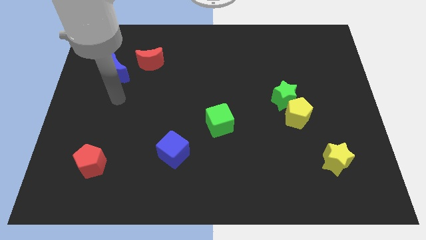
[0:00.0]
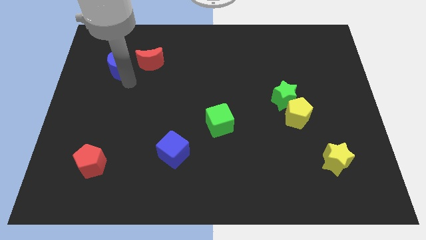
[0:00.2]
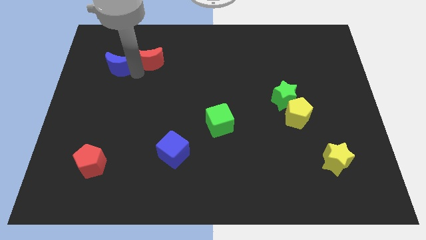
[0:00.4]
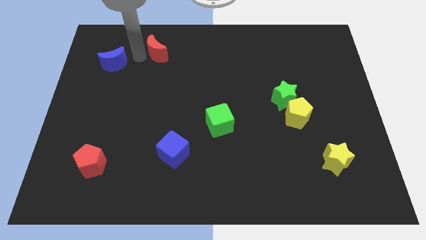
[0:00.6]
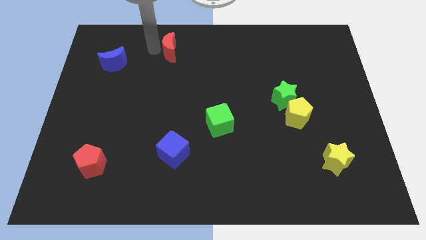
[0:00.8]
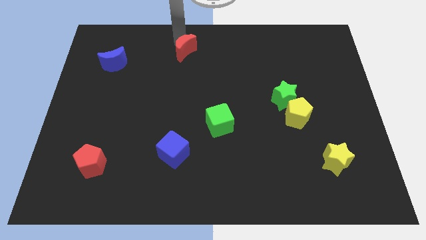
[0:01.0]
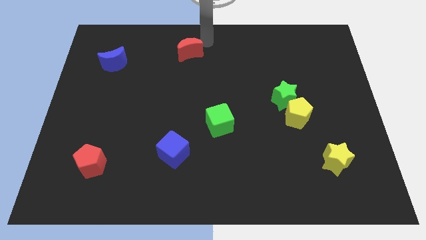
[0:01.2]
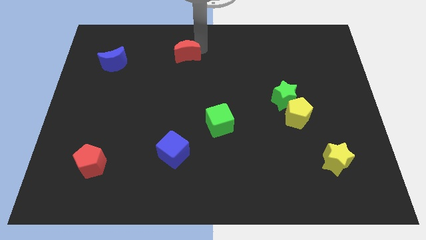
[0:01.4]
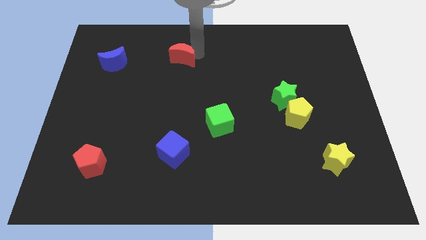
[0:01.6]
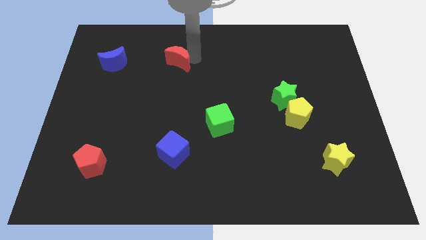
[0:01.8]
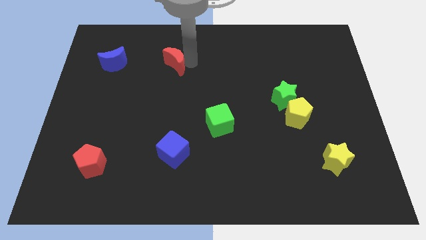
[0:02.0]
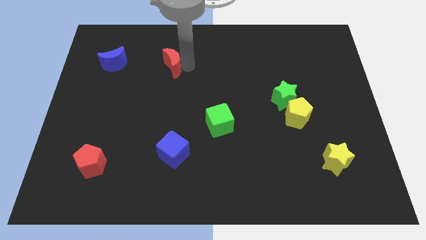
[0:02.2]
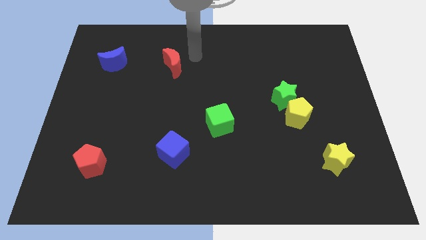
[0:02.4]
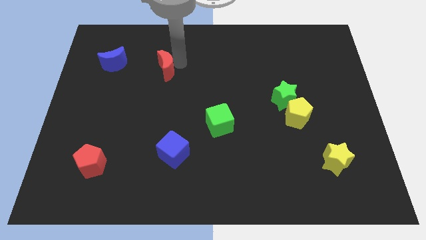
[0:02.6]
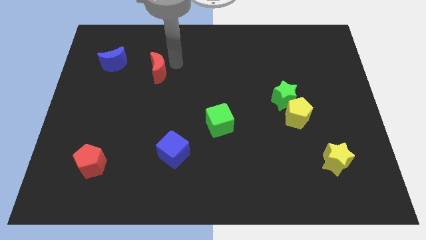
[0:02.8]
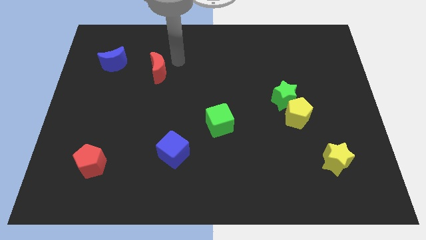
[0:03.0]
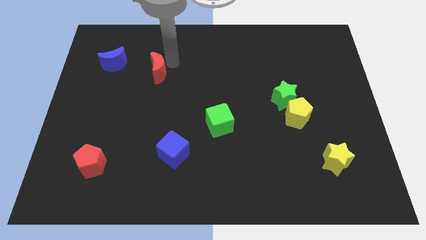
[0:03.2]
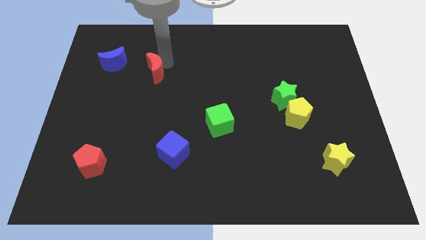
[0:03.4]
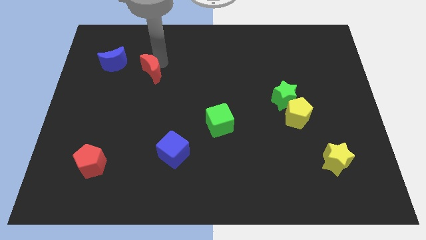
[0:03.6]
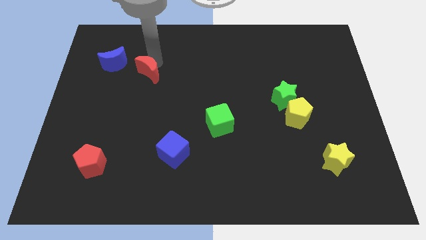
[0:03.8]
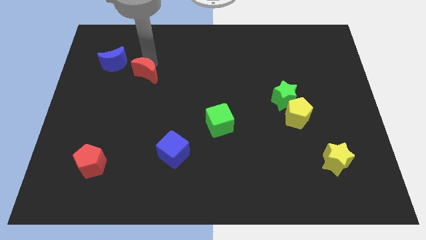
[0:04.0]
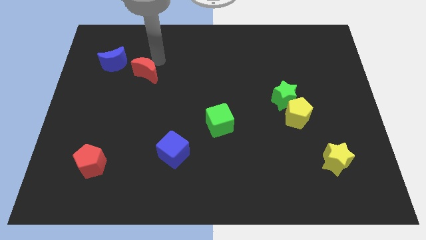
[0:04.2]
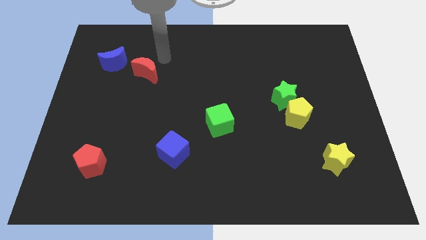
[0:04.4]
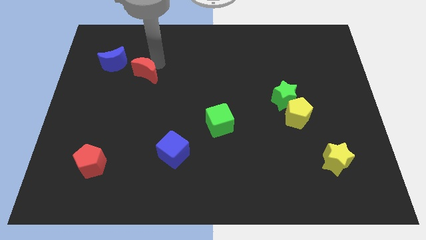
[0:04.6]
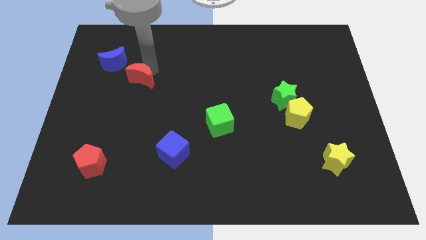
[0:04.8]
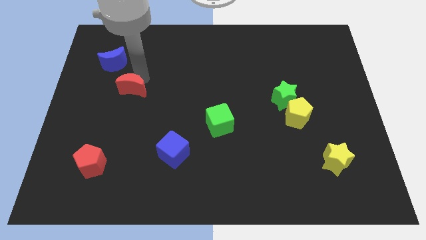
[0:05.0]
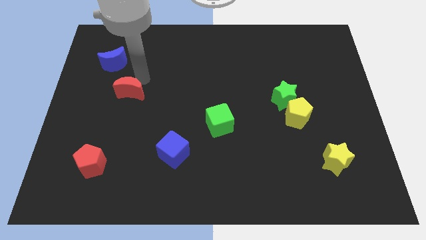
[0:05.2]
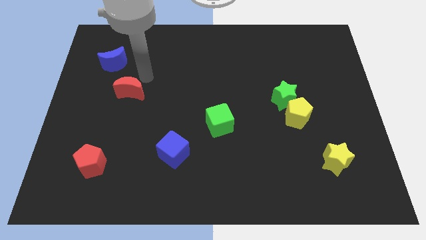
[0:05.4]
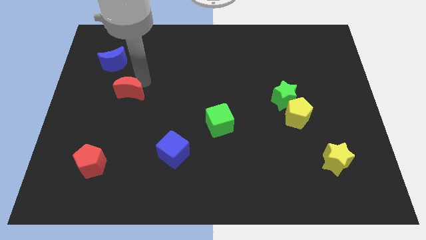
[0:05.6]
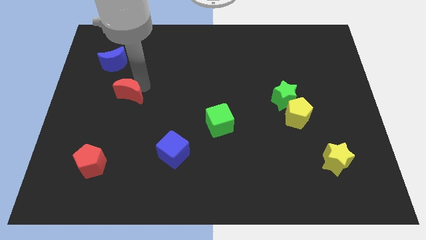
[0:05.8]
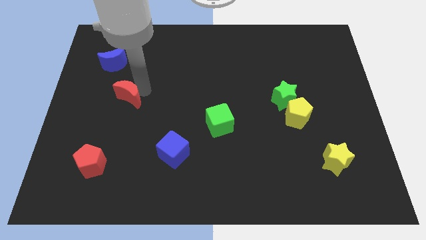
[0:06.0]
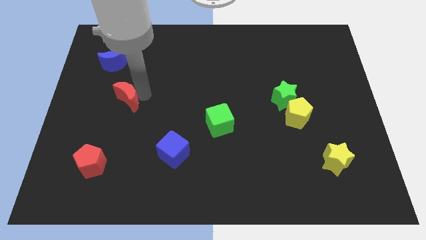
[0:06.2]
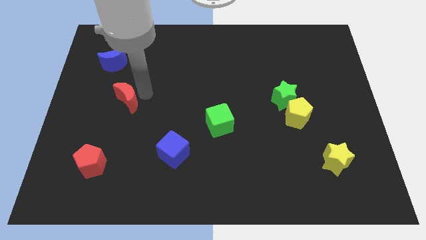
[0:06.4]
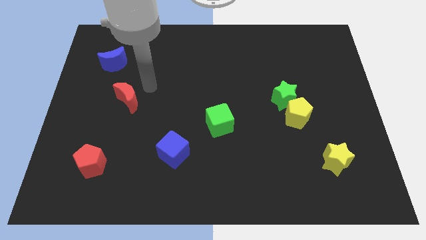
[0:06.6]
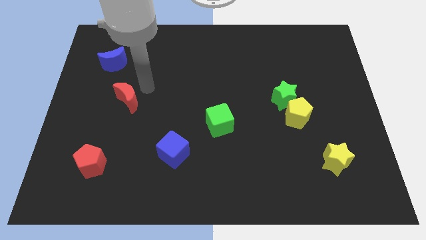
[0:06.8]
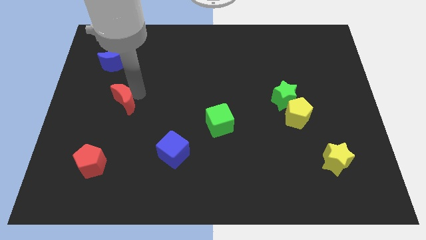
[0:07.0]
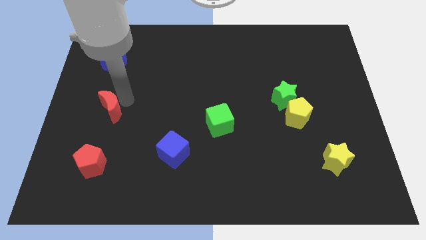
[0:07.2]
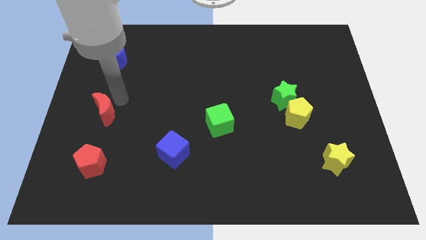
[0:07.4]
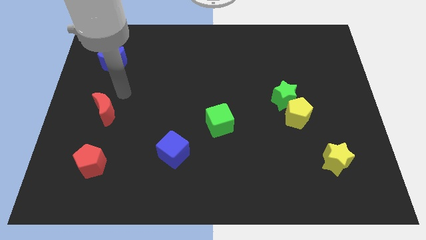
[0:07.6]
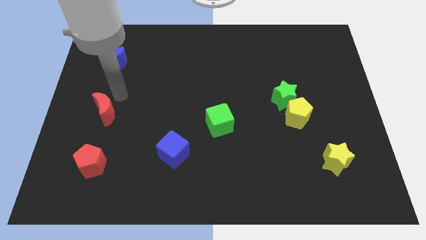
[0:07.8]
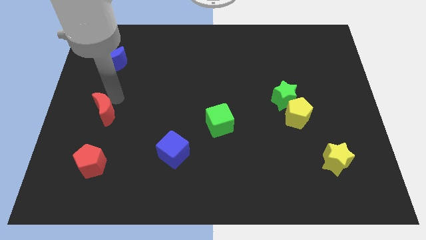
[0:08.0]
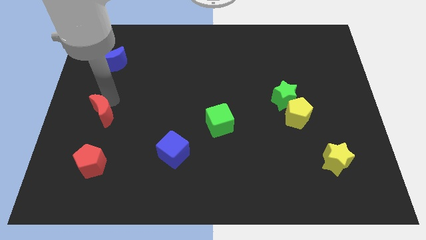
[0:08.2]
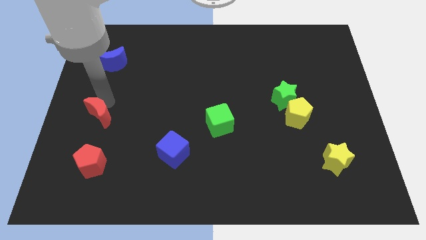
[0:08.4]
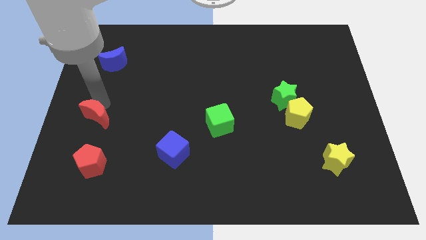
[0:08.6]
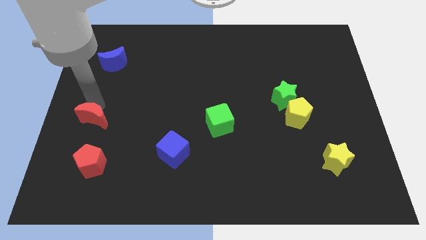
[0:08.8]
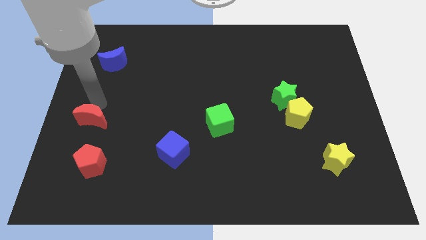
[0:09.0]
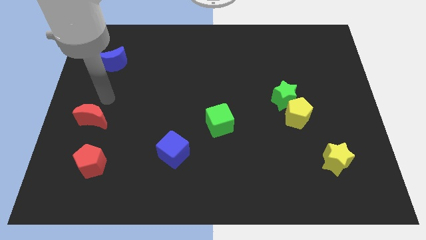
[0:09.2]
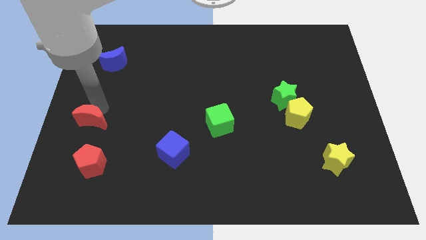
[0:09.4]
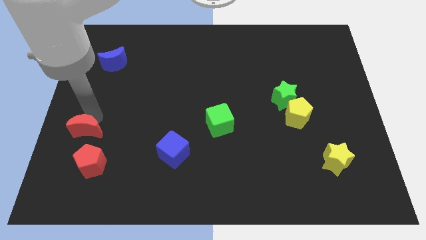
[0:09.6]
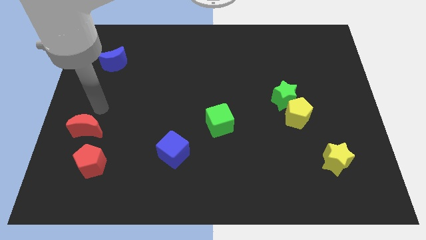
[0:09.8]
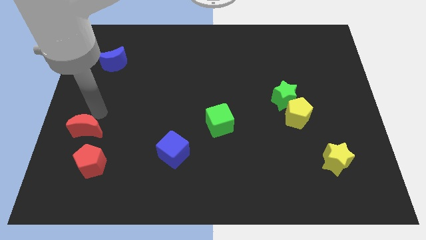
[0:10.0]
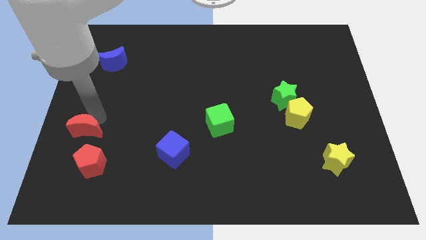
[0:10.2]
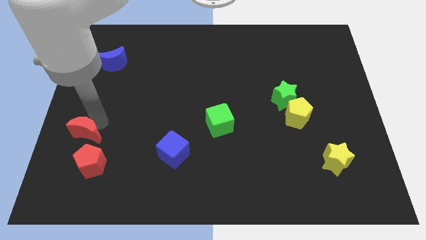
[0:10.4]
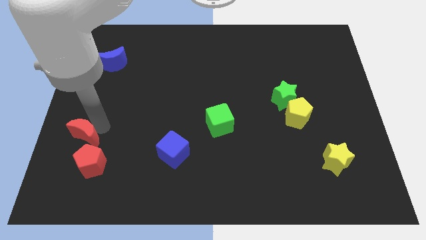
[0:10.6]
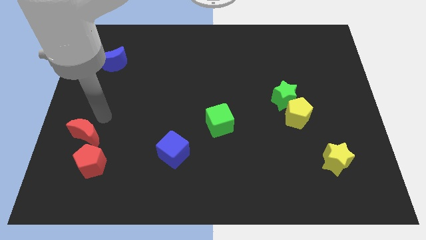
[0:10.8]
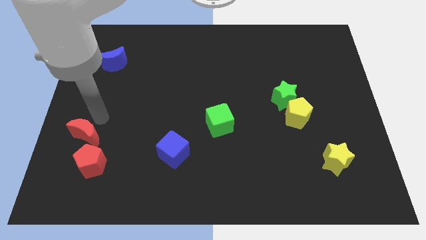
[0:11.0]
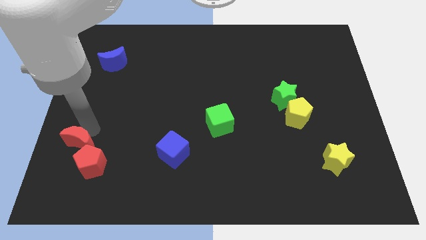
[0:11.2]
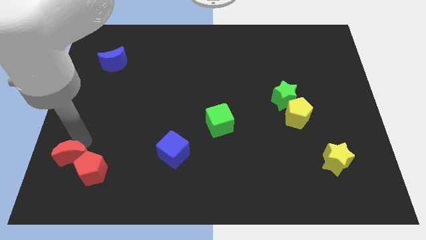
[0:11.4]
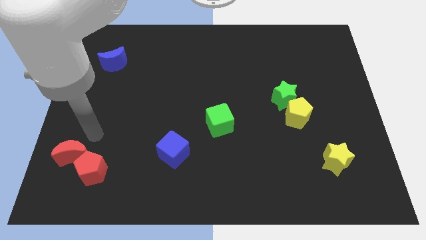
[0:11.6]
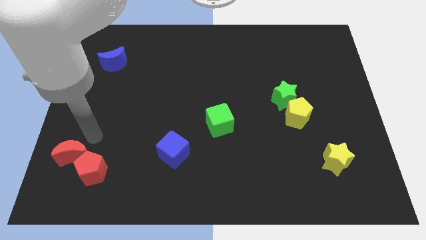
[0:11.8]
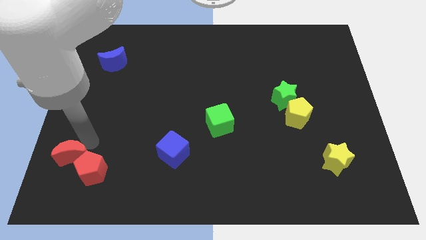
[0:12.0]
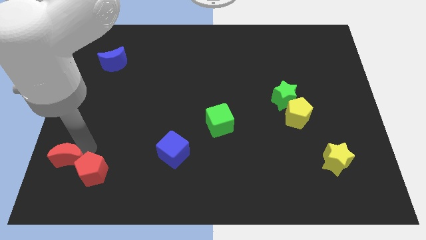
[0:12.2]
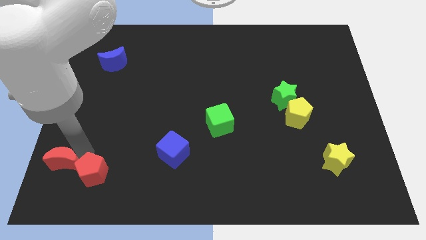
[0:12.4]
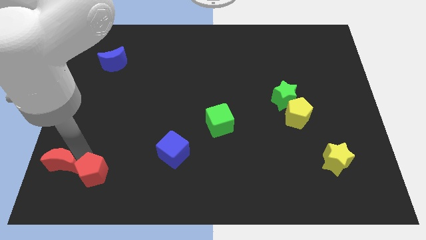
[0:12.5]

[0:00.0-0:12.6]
slide the red moon to the lower left corner

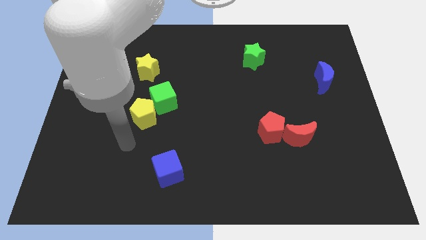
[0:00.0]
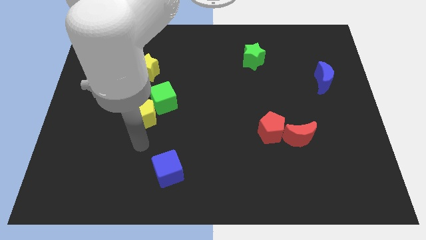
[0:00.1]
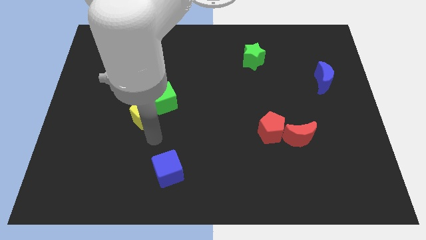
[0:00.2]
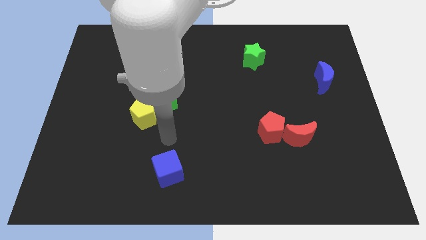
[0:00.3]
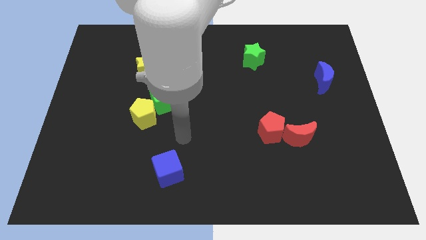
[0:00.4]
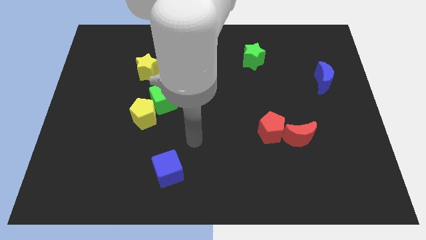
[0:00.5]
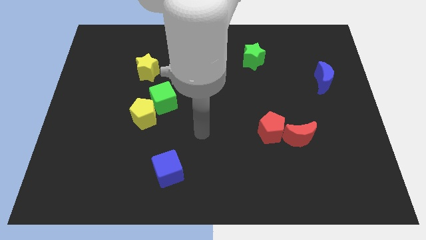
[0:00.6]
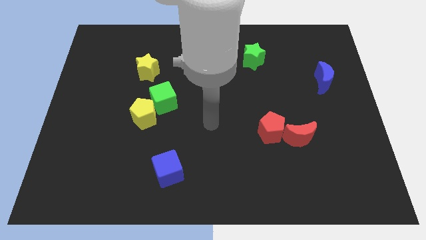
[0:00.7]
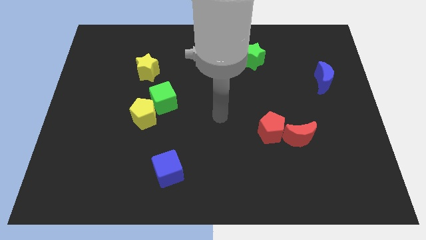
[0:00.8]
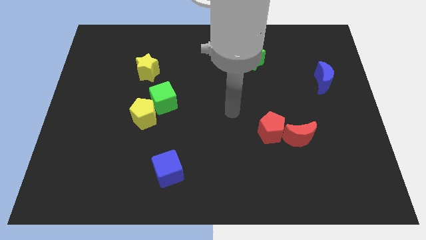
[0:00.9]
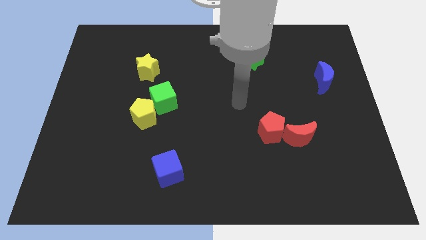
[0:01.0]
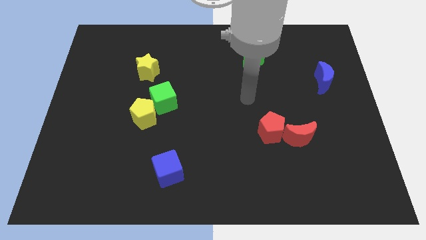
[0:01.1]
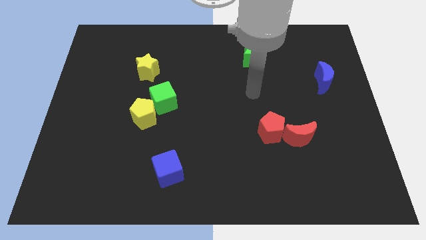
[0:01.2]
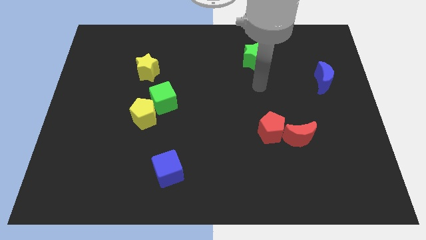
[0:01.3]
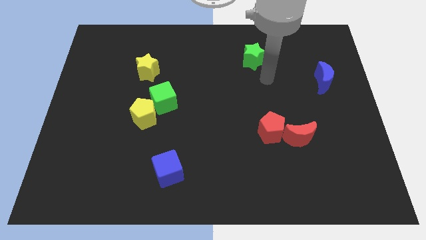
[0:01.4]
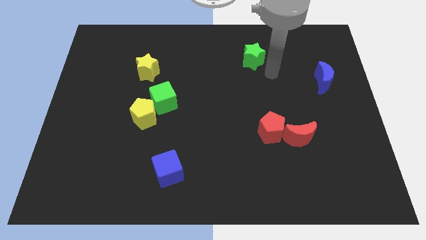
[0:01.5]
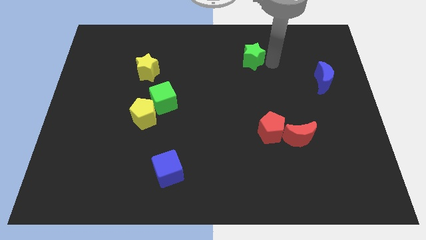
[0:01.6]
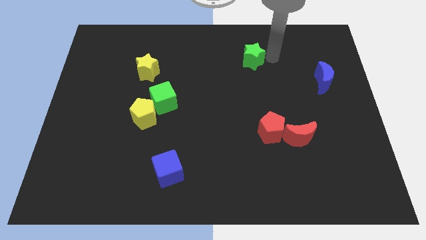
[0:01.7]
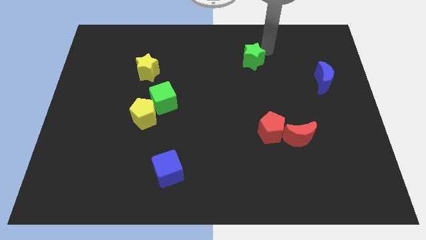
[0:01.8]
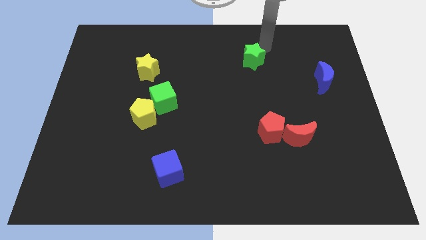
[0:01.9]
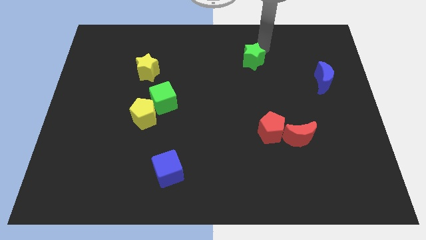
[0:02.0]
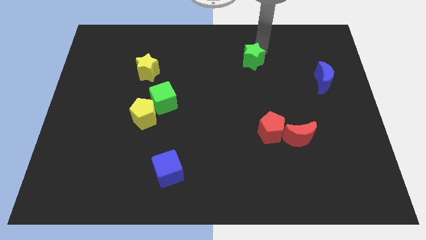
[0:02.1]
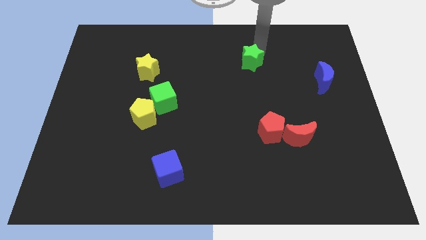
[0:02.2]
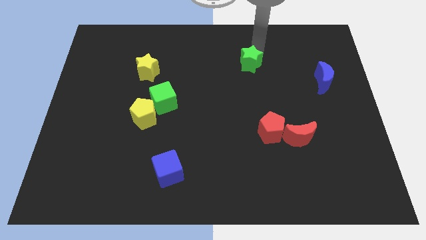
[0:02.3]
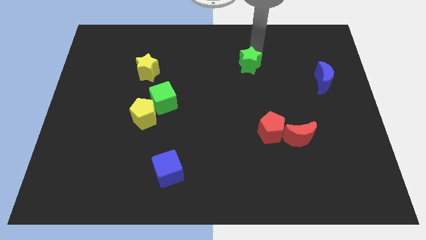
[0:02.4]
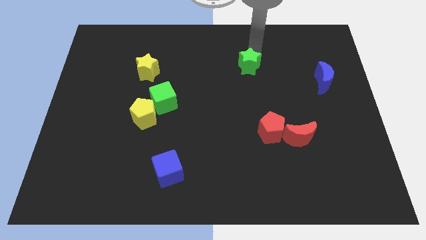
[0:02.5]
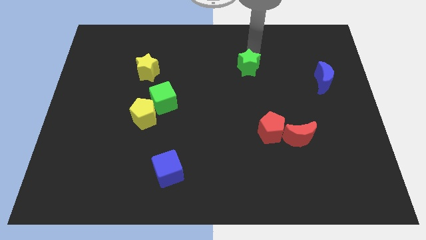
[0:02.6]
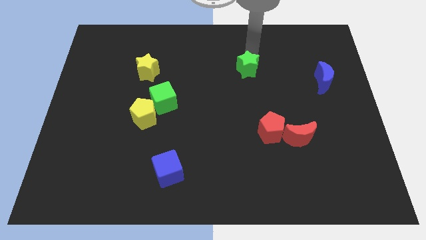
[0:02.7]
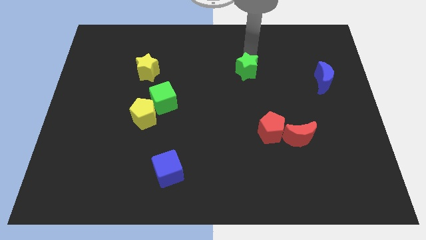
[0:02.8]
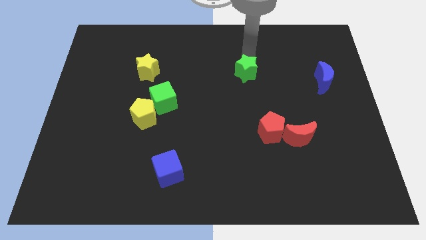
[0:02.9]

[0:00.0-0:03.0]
move the green star to the middle
